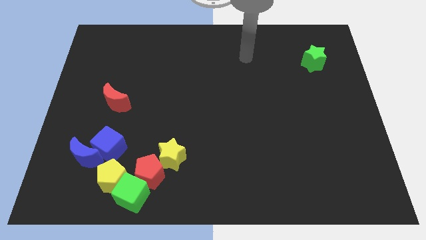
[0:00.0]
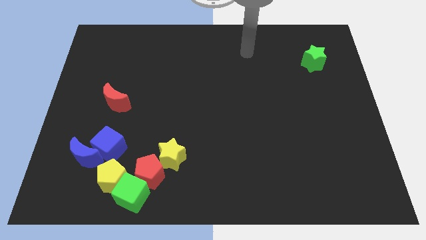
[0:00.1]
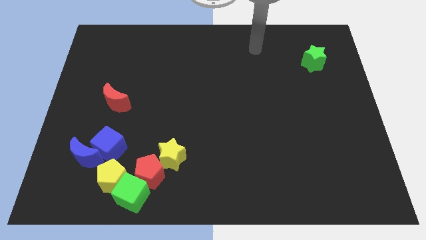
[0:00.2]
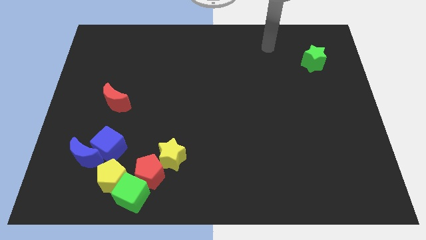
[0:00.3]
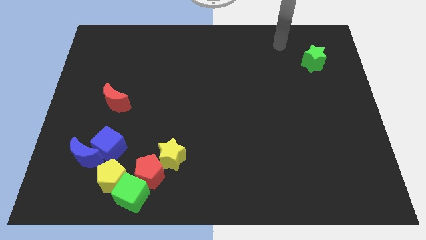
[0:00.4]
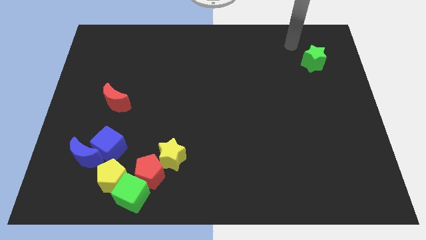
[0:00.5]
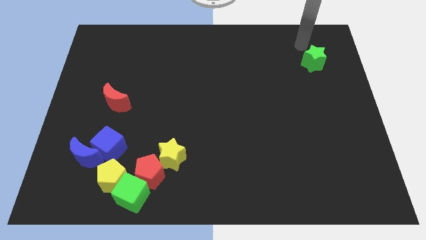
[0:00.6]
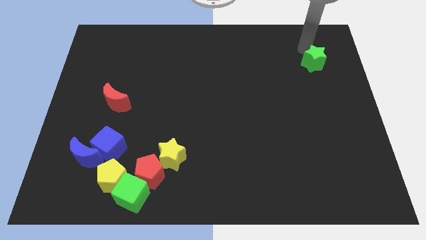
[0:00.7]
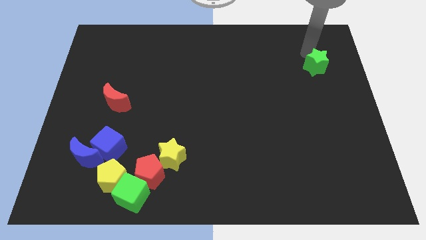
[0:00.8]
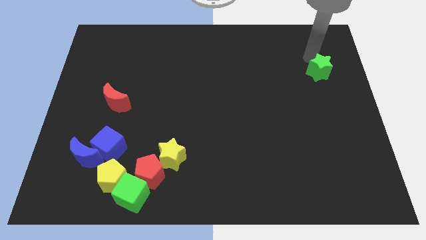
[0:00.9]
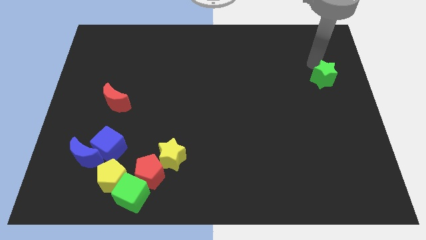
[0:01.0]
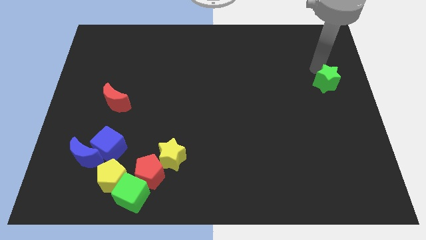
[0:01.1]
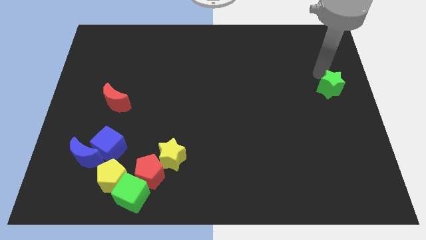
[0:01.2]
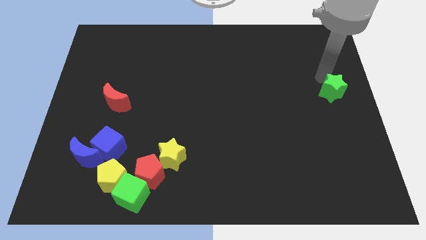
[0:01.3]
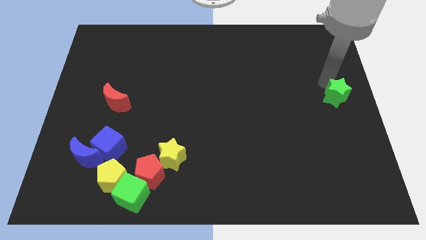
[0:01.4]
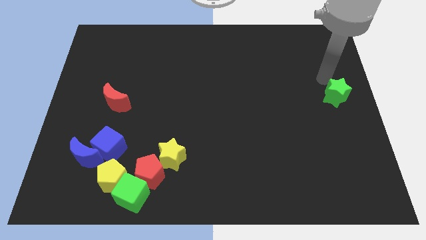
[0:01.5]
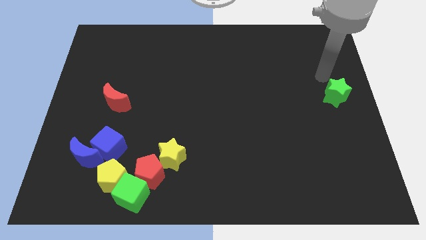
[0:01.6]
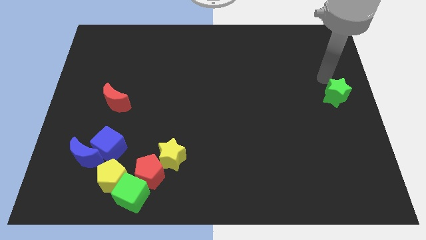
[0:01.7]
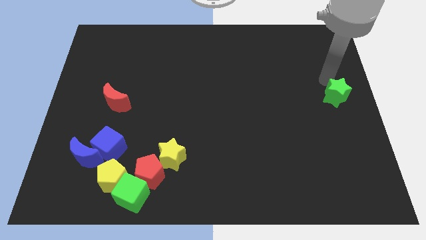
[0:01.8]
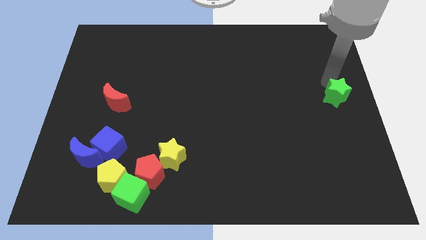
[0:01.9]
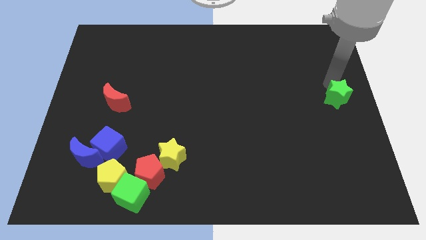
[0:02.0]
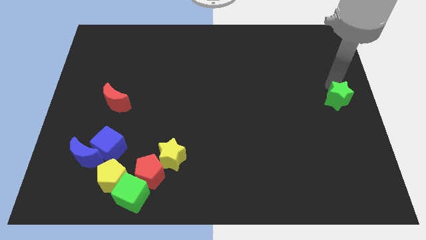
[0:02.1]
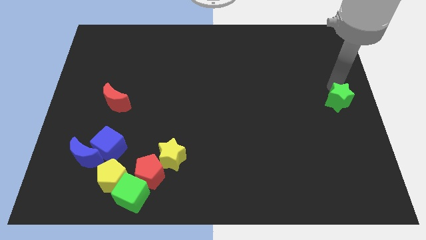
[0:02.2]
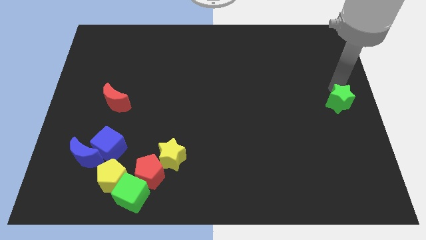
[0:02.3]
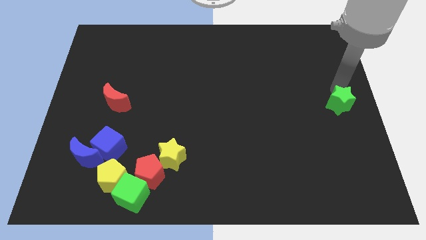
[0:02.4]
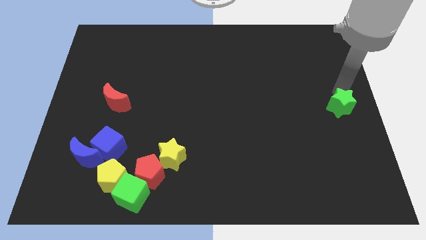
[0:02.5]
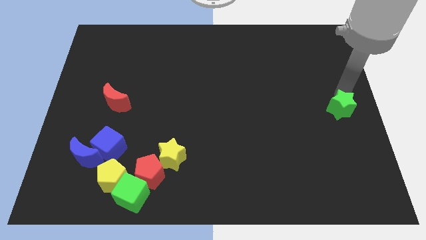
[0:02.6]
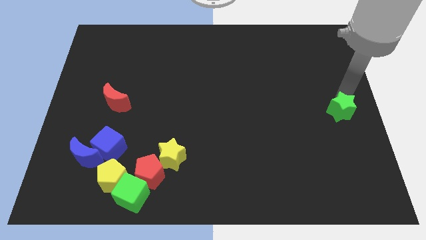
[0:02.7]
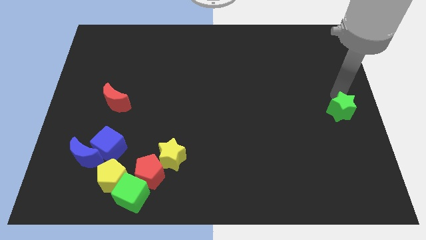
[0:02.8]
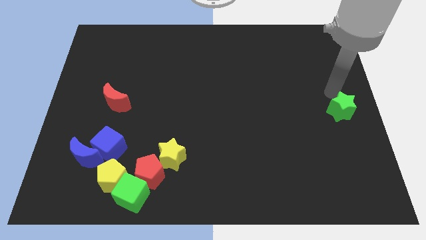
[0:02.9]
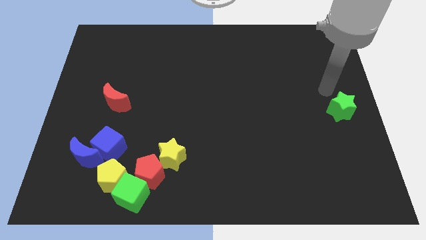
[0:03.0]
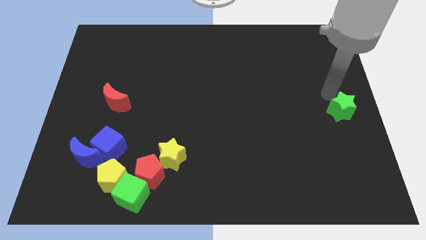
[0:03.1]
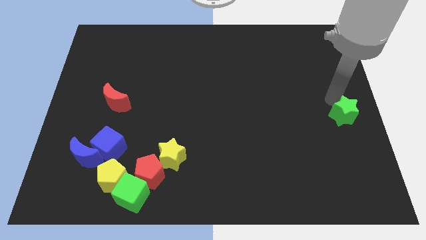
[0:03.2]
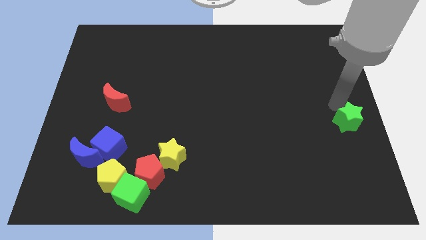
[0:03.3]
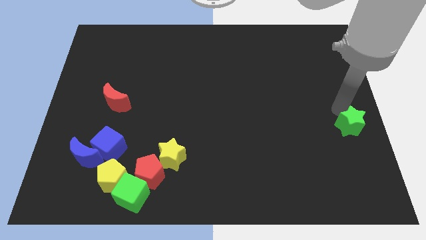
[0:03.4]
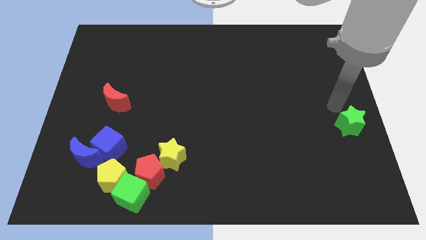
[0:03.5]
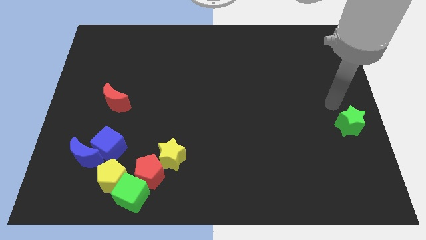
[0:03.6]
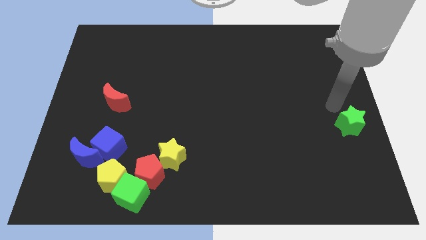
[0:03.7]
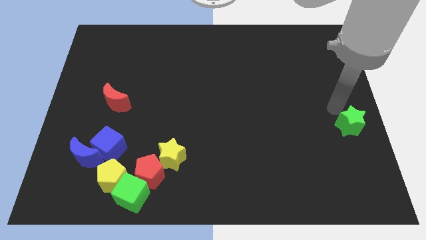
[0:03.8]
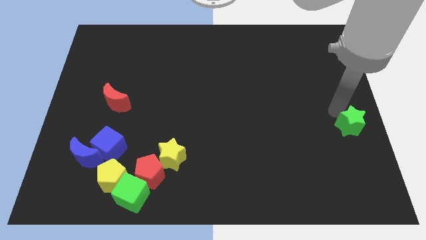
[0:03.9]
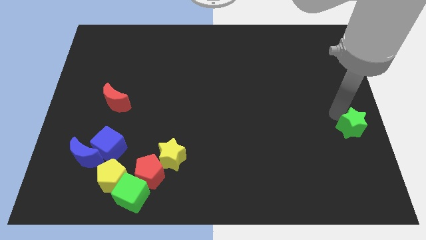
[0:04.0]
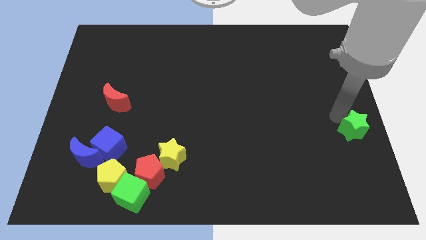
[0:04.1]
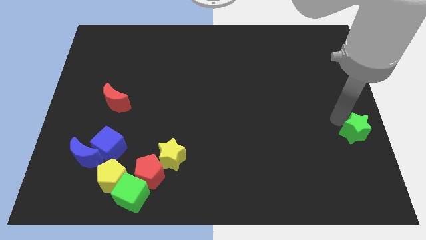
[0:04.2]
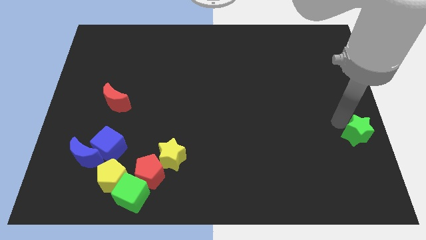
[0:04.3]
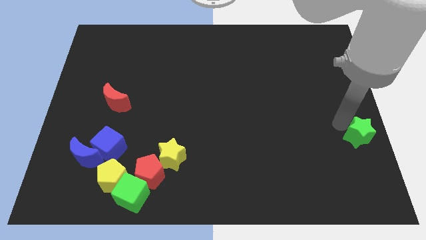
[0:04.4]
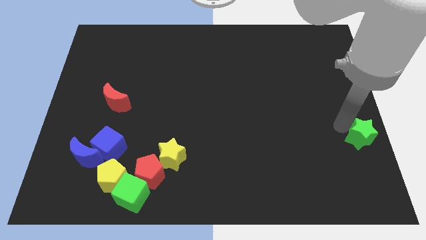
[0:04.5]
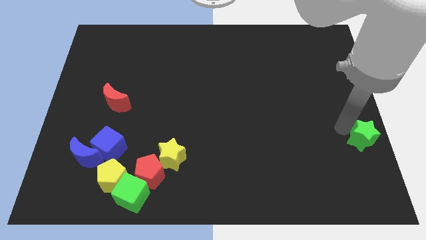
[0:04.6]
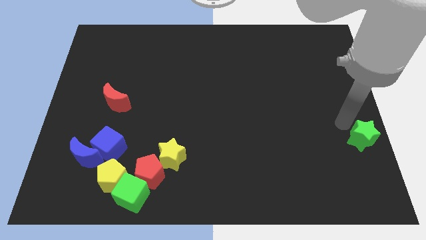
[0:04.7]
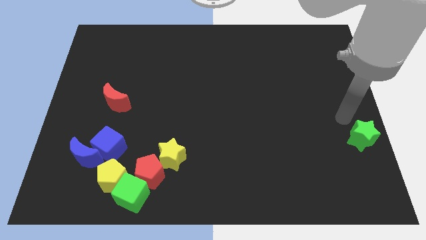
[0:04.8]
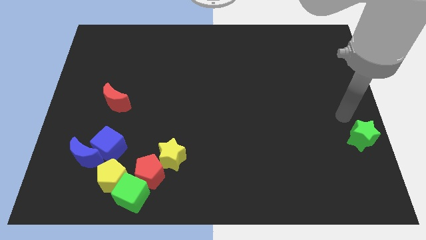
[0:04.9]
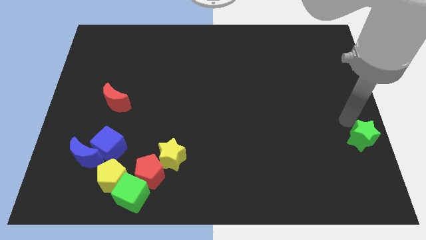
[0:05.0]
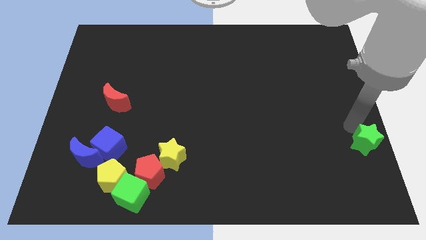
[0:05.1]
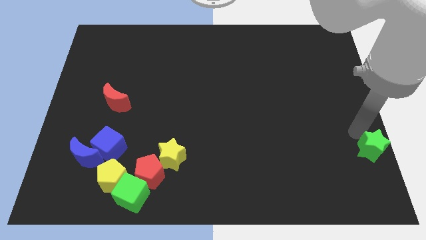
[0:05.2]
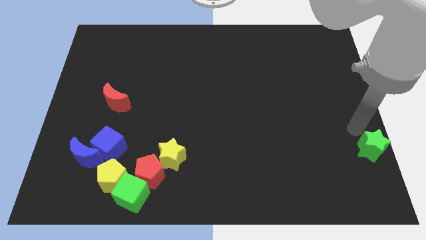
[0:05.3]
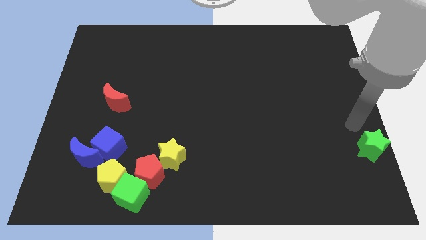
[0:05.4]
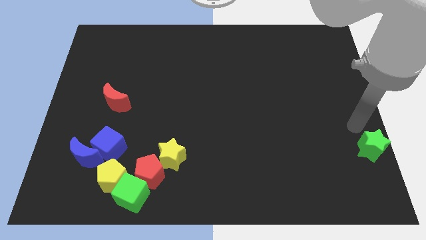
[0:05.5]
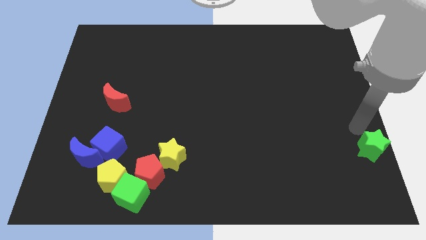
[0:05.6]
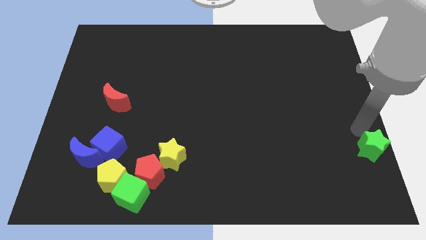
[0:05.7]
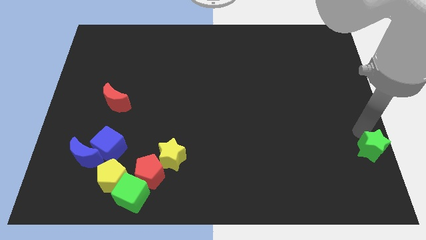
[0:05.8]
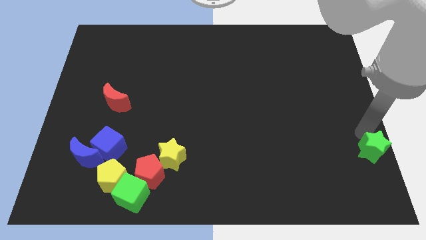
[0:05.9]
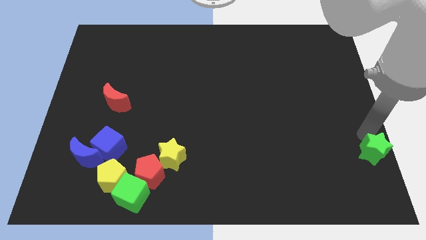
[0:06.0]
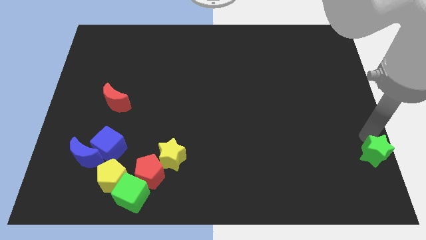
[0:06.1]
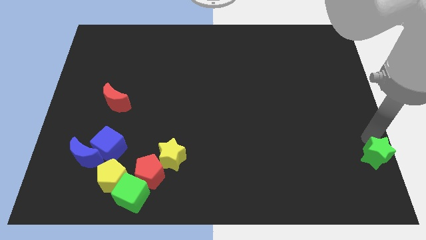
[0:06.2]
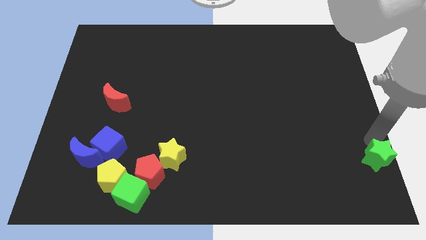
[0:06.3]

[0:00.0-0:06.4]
slide the green star to the bottom right of the board
